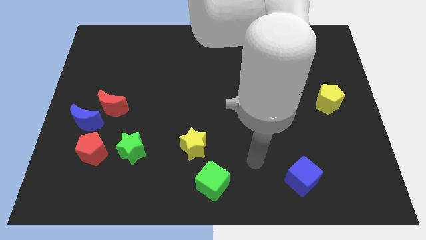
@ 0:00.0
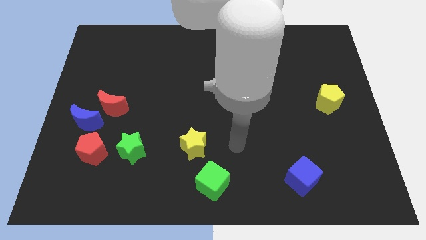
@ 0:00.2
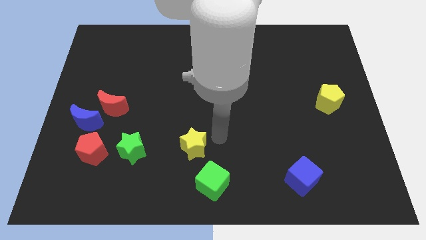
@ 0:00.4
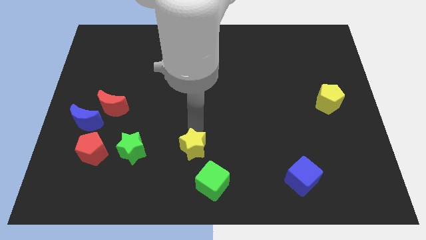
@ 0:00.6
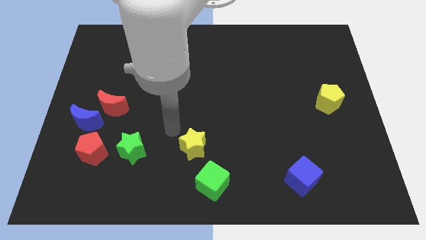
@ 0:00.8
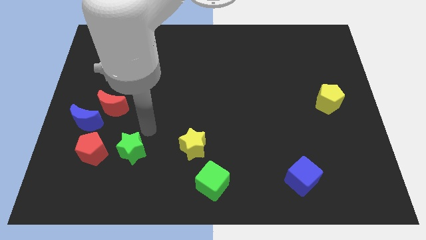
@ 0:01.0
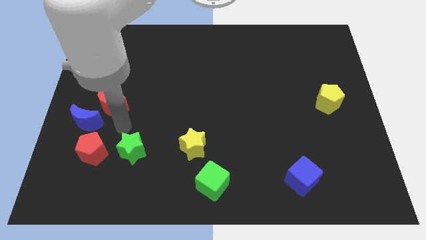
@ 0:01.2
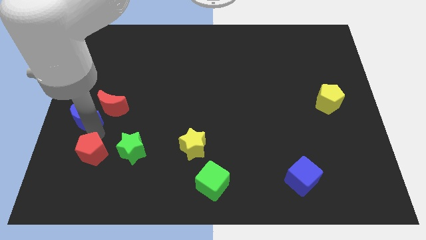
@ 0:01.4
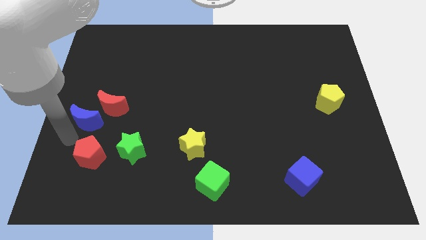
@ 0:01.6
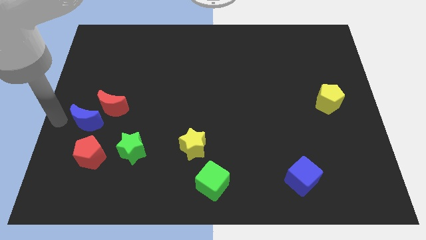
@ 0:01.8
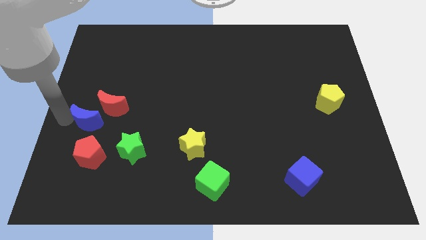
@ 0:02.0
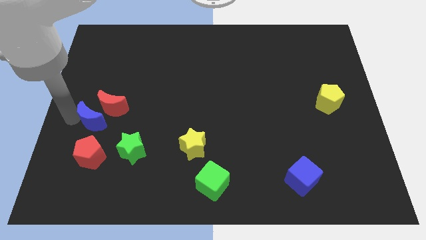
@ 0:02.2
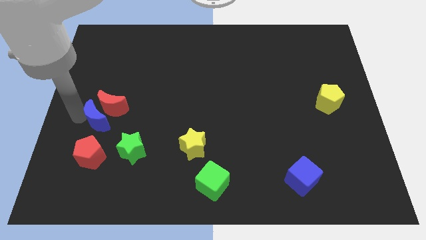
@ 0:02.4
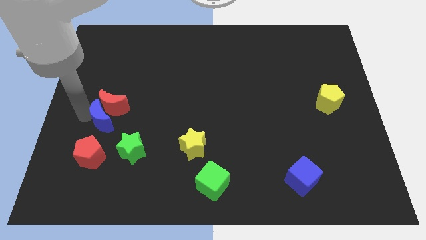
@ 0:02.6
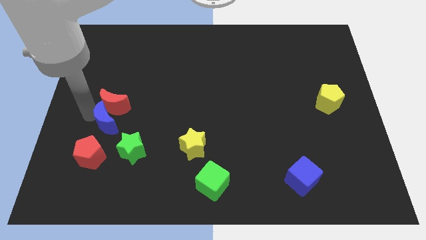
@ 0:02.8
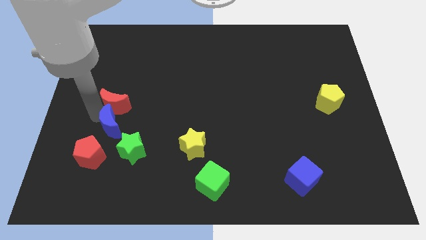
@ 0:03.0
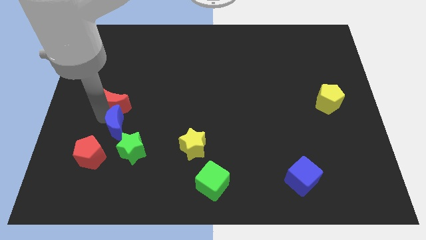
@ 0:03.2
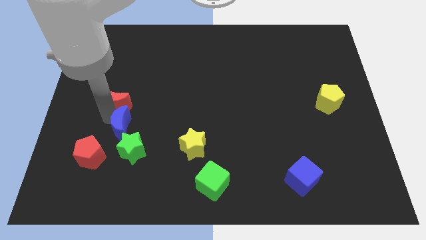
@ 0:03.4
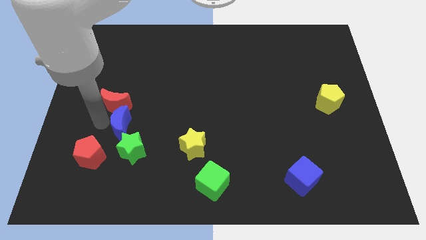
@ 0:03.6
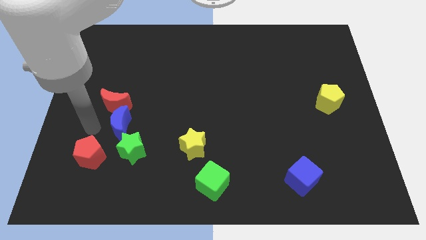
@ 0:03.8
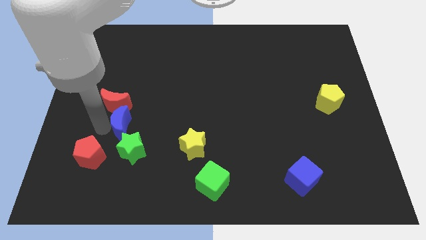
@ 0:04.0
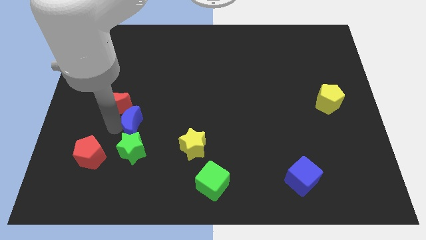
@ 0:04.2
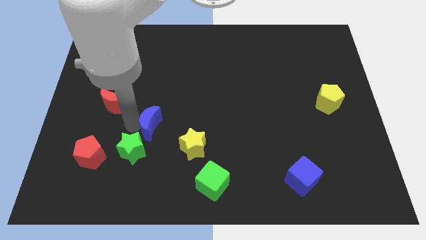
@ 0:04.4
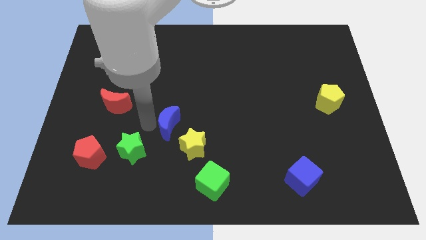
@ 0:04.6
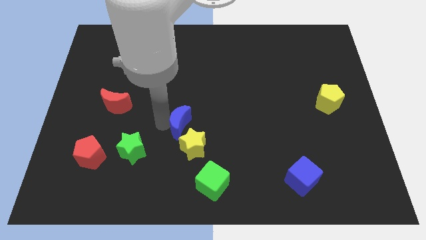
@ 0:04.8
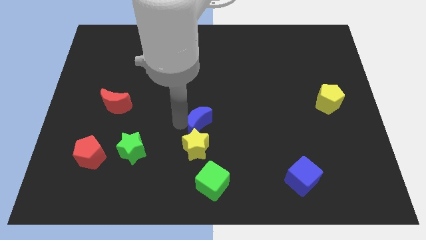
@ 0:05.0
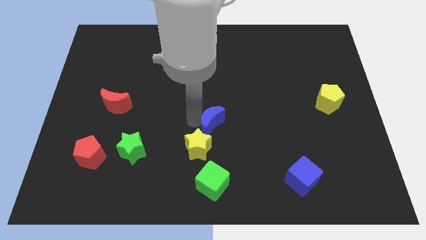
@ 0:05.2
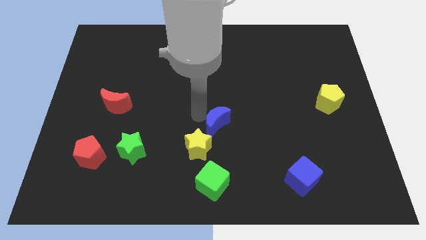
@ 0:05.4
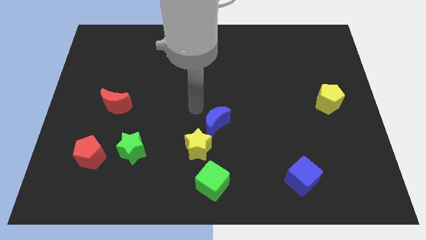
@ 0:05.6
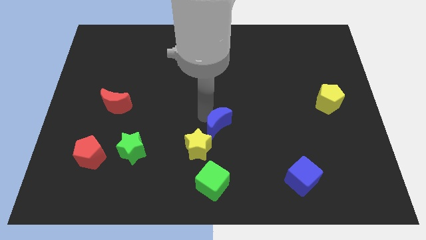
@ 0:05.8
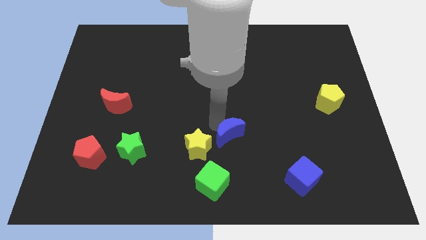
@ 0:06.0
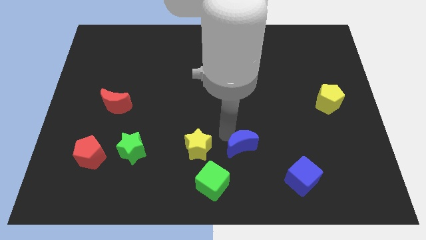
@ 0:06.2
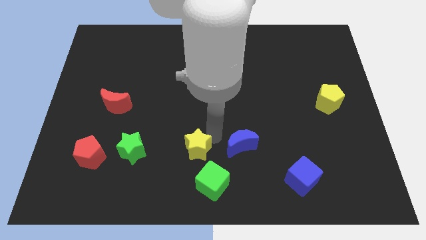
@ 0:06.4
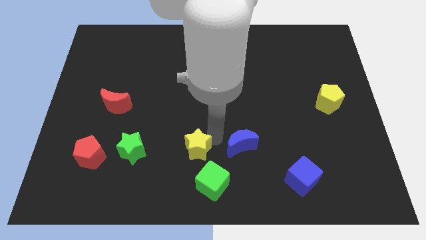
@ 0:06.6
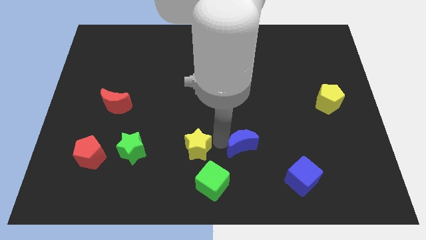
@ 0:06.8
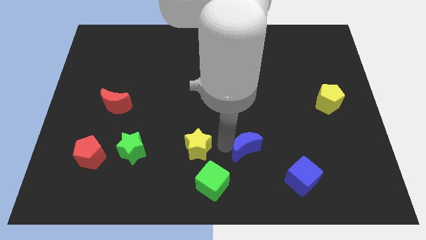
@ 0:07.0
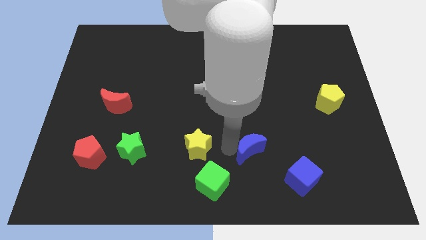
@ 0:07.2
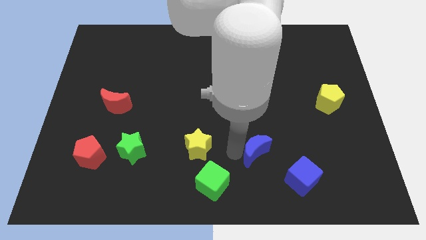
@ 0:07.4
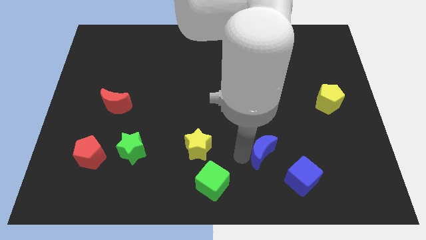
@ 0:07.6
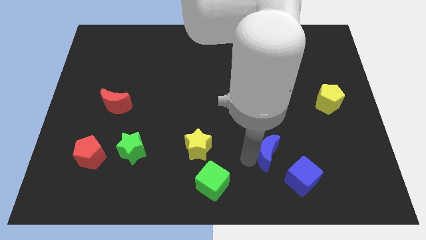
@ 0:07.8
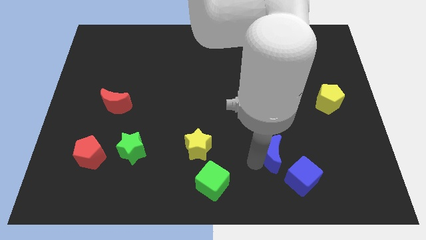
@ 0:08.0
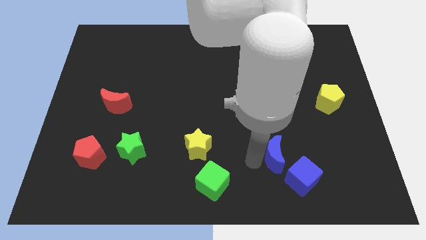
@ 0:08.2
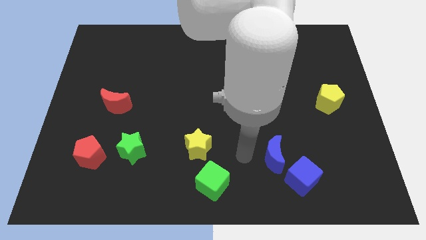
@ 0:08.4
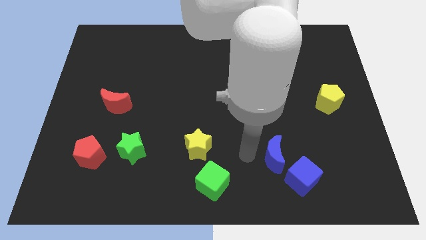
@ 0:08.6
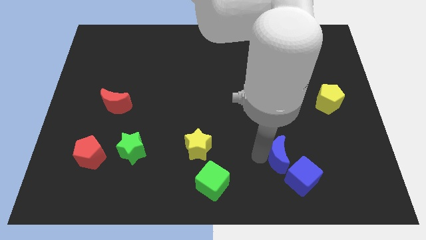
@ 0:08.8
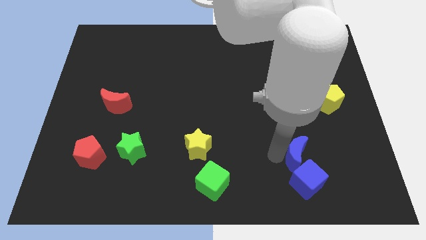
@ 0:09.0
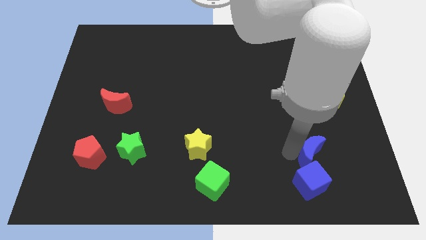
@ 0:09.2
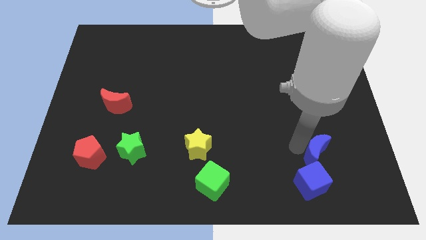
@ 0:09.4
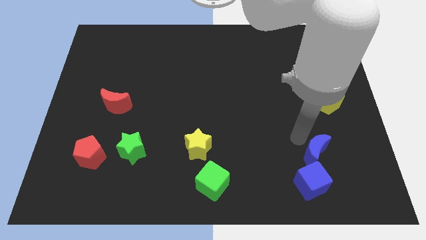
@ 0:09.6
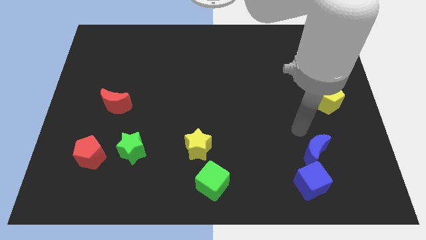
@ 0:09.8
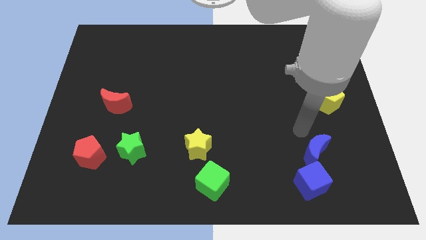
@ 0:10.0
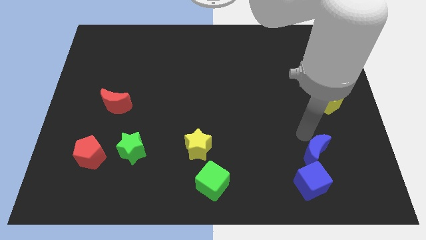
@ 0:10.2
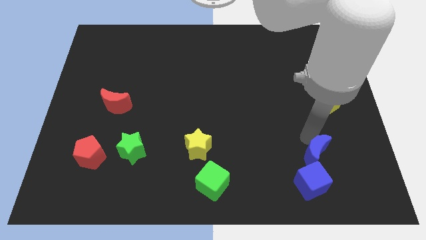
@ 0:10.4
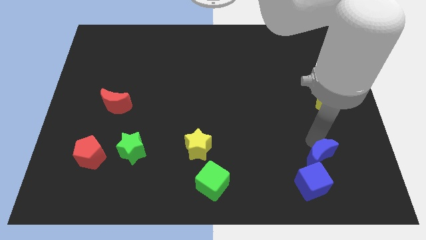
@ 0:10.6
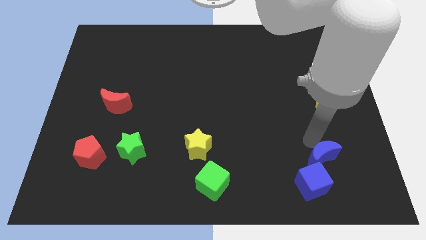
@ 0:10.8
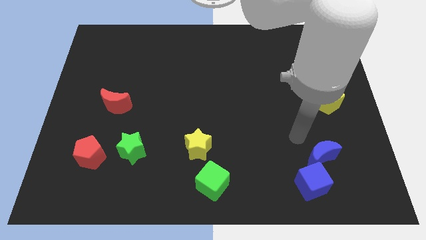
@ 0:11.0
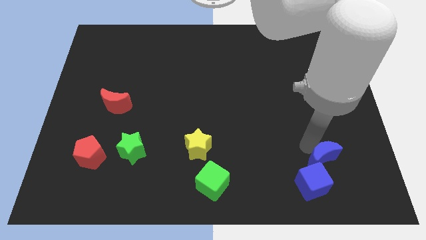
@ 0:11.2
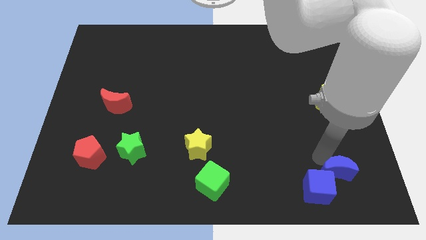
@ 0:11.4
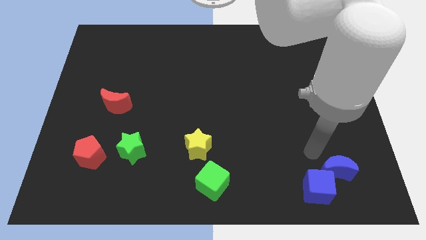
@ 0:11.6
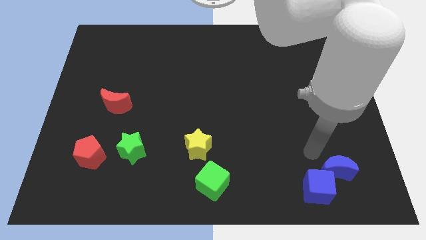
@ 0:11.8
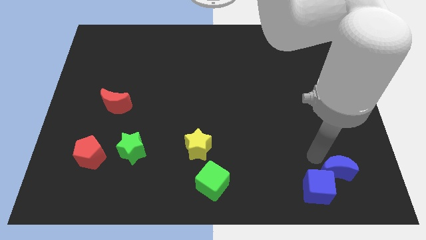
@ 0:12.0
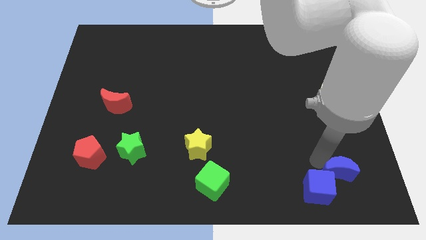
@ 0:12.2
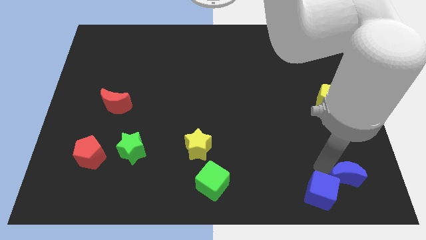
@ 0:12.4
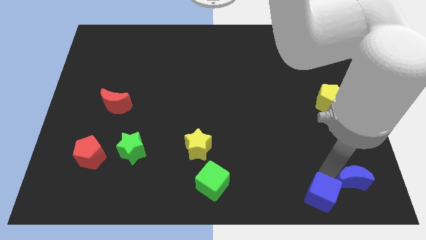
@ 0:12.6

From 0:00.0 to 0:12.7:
move the blue moon to the lower right corner
